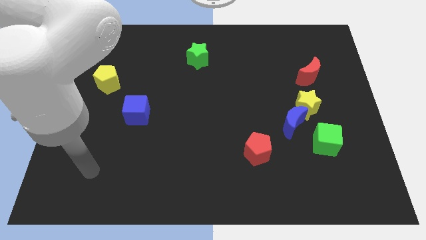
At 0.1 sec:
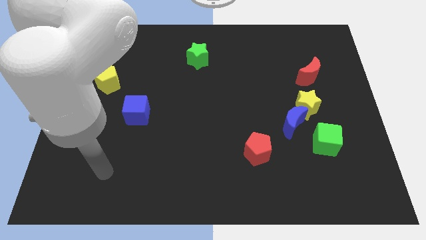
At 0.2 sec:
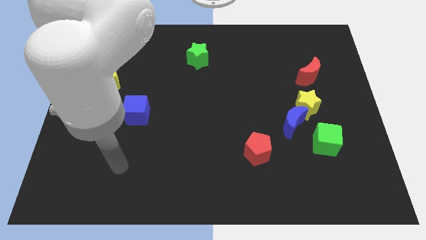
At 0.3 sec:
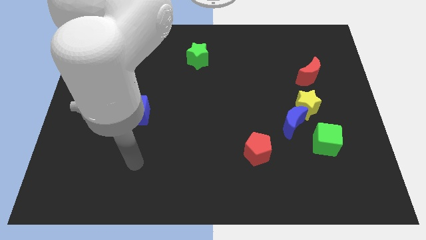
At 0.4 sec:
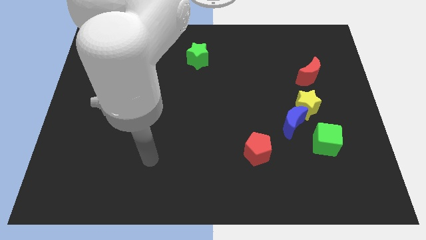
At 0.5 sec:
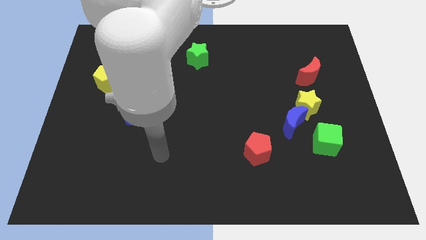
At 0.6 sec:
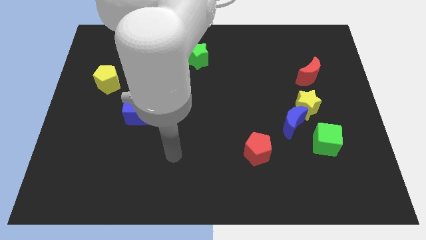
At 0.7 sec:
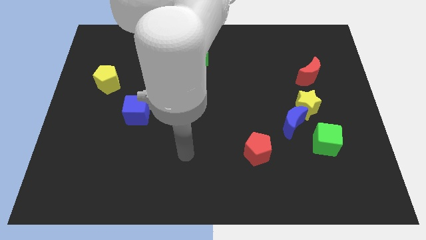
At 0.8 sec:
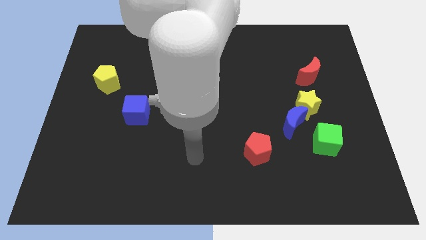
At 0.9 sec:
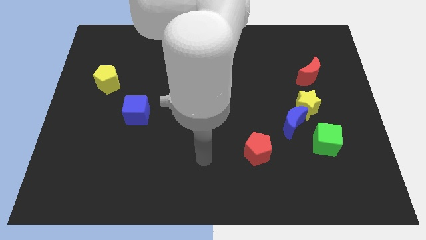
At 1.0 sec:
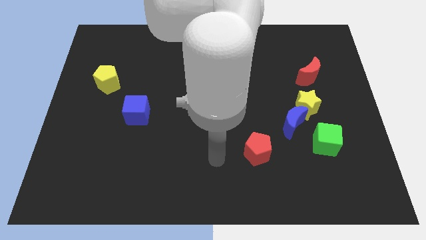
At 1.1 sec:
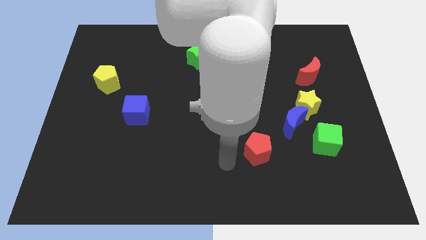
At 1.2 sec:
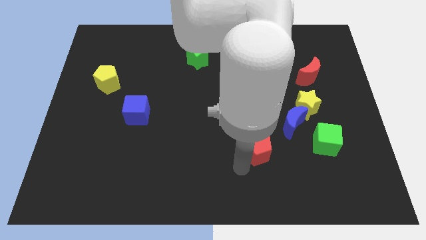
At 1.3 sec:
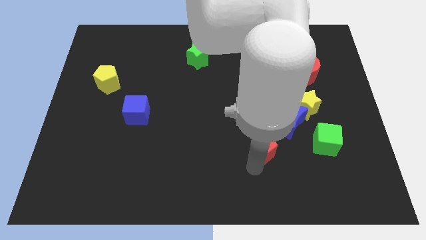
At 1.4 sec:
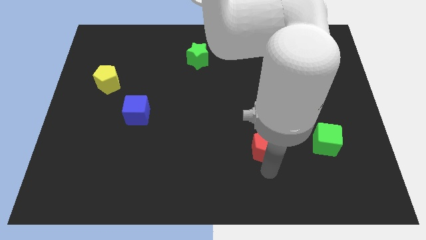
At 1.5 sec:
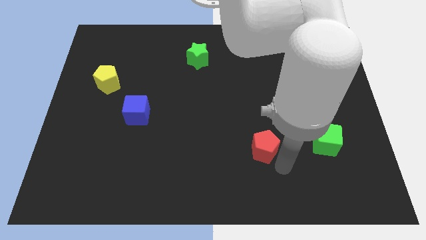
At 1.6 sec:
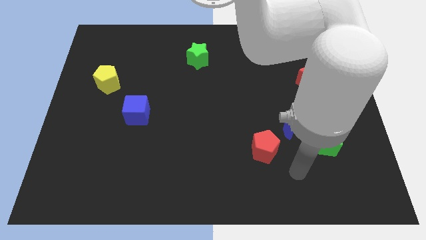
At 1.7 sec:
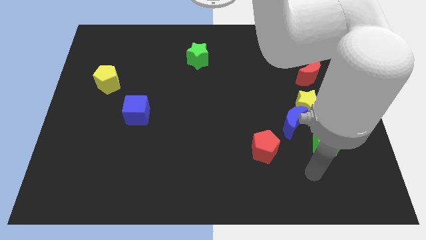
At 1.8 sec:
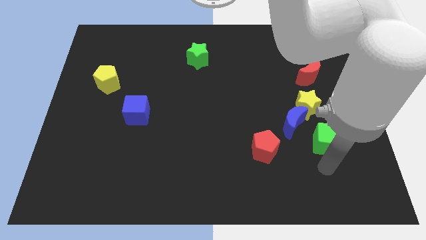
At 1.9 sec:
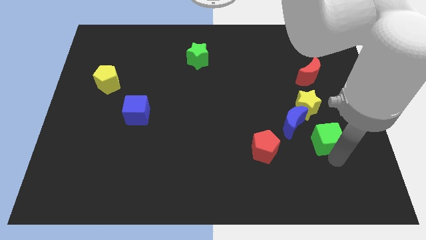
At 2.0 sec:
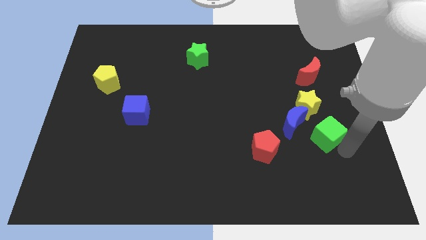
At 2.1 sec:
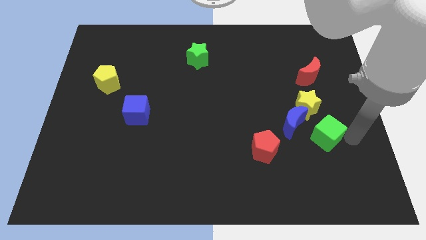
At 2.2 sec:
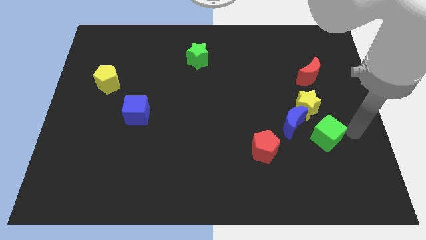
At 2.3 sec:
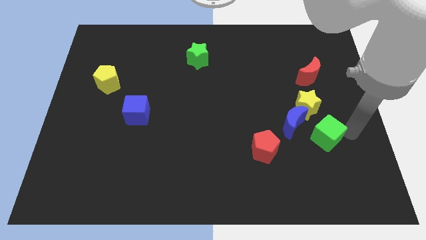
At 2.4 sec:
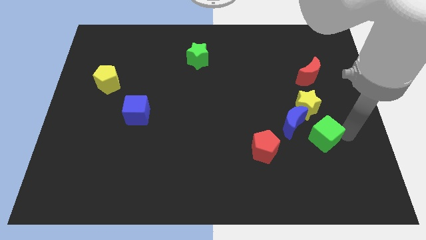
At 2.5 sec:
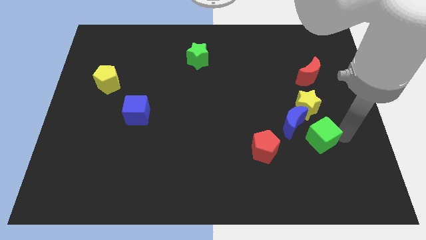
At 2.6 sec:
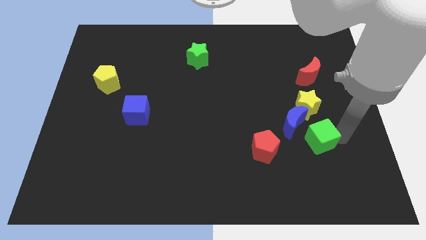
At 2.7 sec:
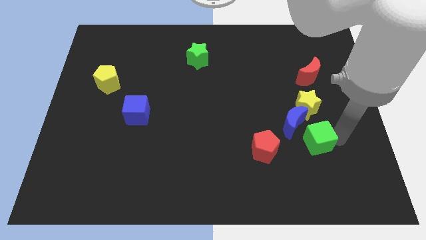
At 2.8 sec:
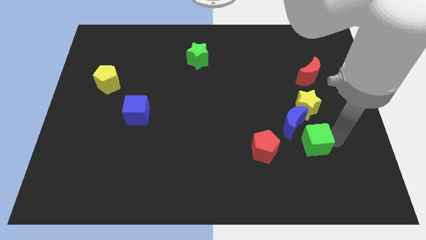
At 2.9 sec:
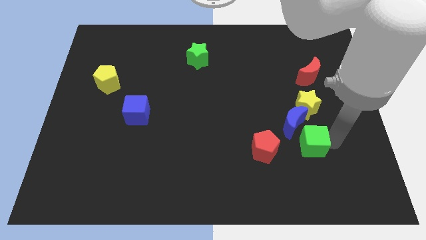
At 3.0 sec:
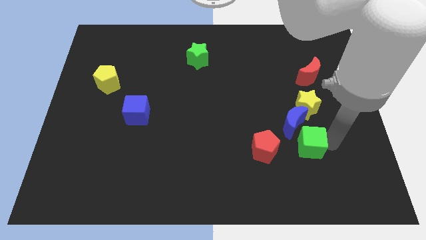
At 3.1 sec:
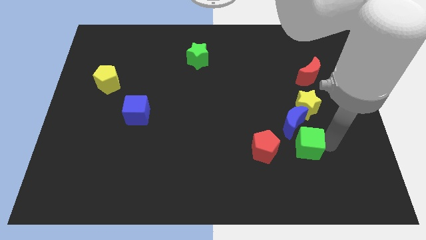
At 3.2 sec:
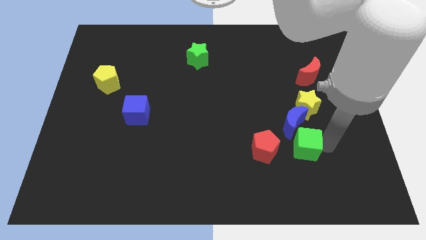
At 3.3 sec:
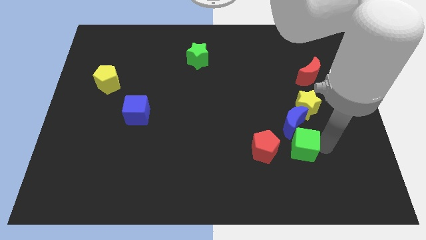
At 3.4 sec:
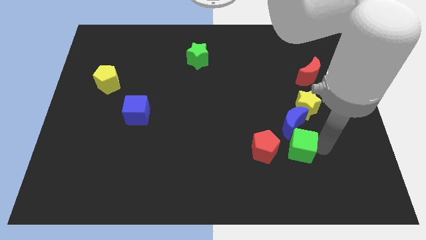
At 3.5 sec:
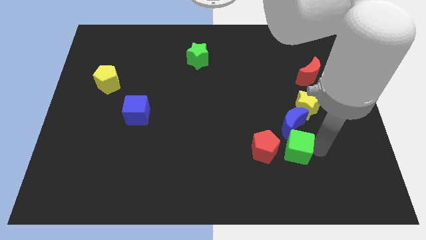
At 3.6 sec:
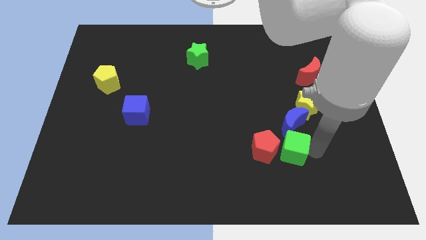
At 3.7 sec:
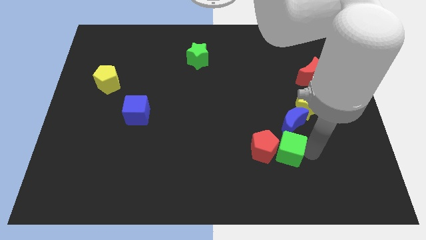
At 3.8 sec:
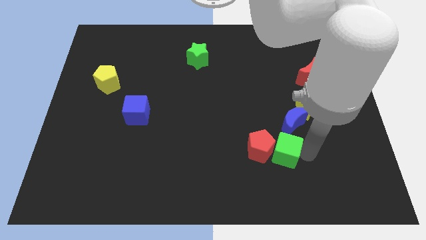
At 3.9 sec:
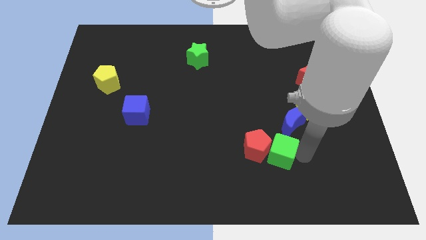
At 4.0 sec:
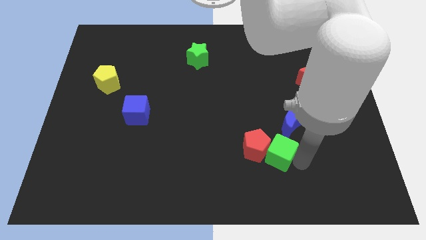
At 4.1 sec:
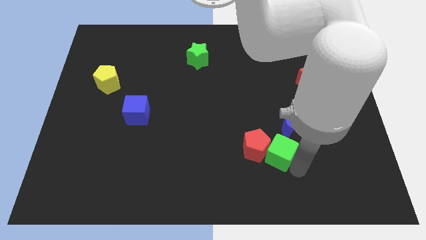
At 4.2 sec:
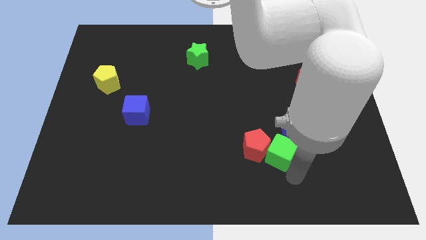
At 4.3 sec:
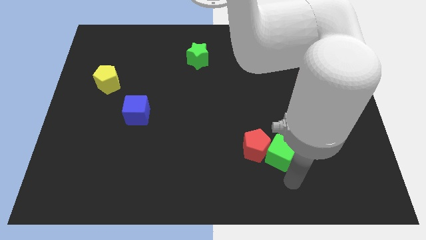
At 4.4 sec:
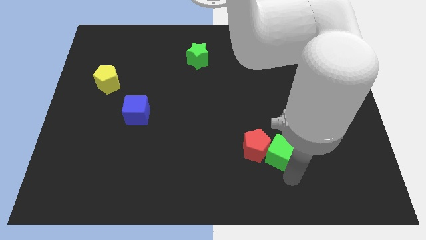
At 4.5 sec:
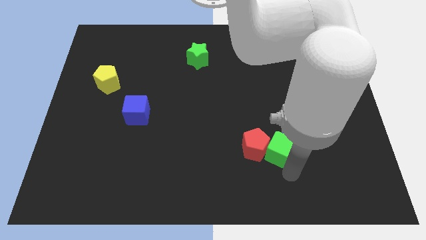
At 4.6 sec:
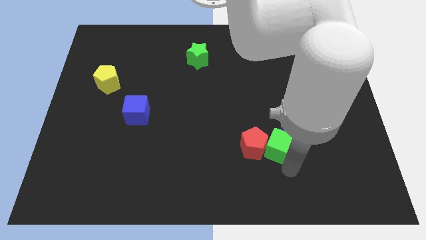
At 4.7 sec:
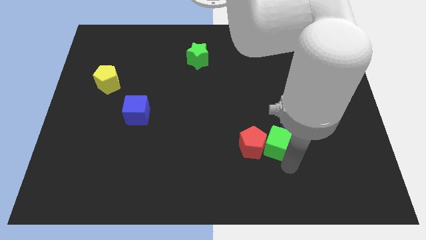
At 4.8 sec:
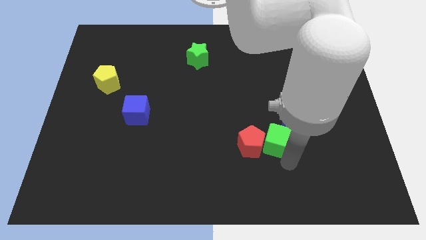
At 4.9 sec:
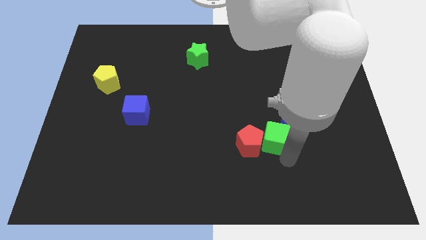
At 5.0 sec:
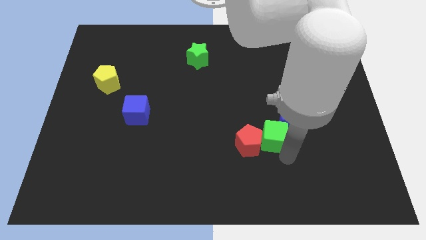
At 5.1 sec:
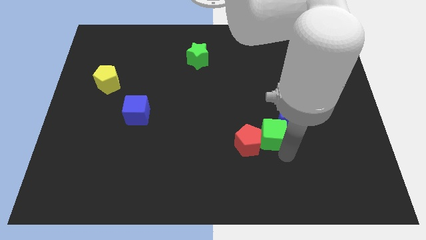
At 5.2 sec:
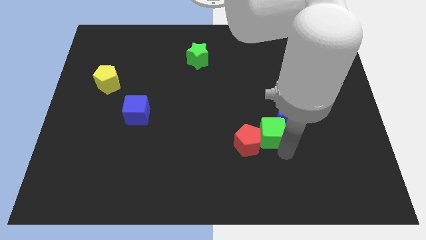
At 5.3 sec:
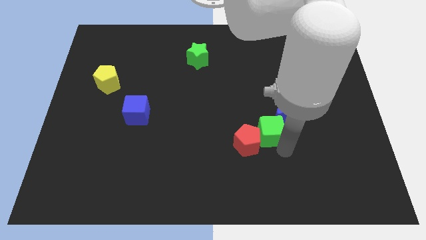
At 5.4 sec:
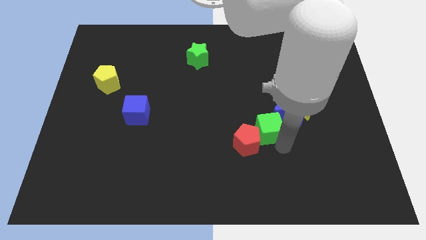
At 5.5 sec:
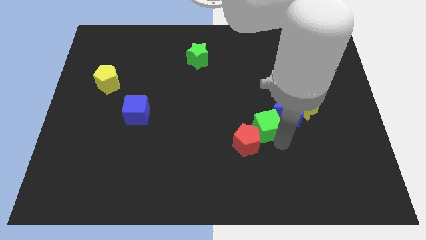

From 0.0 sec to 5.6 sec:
slide the green cube to the top side of the red pentagon

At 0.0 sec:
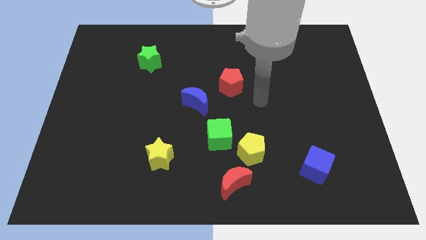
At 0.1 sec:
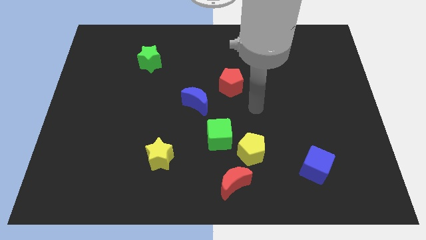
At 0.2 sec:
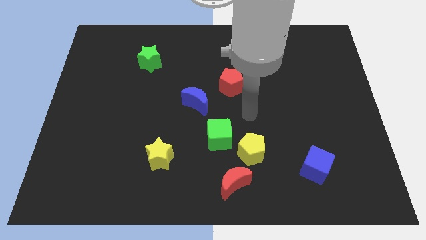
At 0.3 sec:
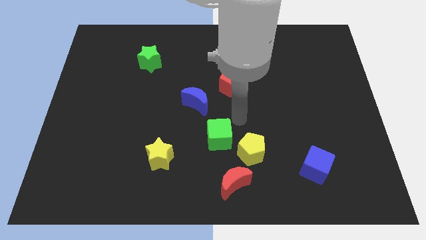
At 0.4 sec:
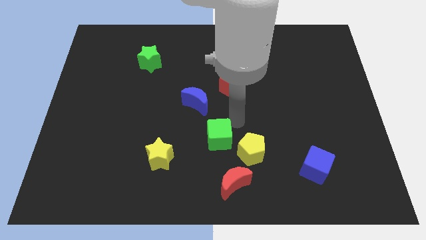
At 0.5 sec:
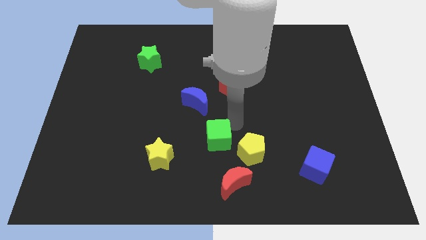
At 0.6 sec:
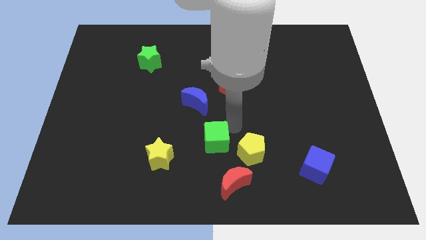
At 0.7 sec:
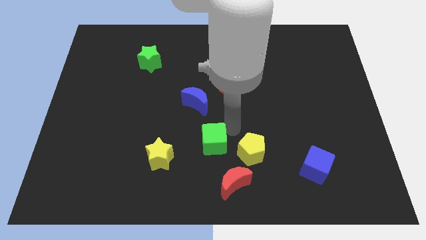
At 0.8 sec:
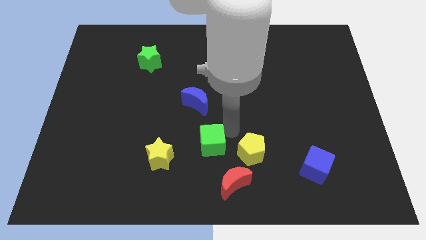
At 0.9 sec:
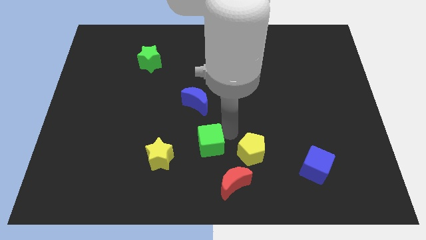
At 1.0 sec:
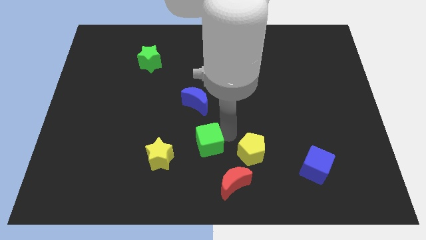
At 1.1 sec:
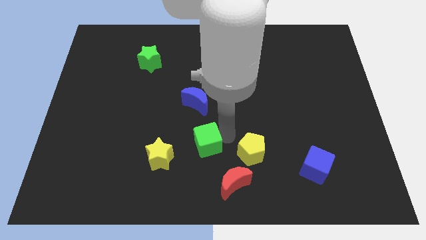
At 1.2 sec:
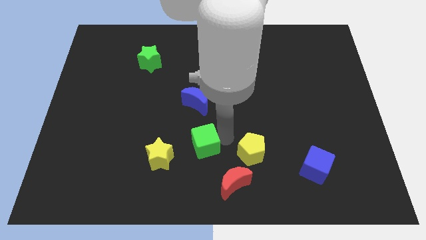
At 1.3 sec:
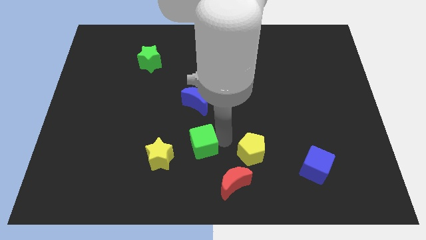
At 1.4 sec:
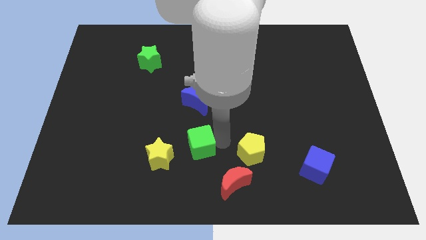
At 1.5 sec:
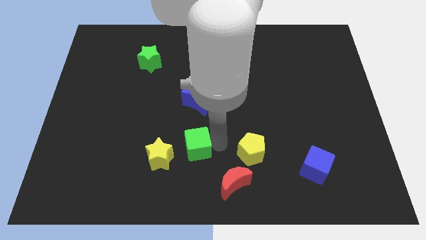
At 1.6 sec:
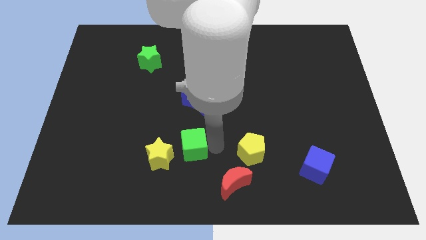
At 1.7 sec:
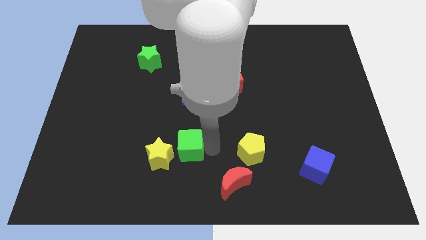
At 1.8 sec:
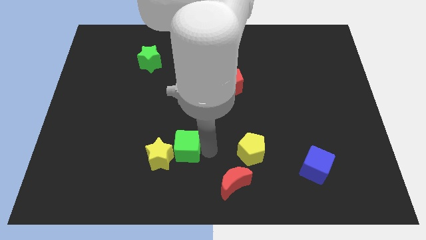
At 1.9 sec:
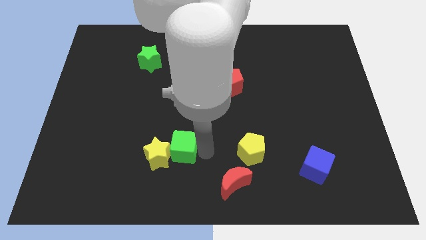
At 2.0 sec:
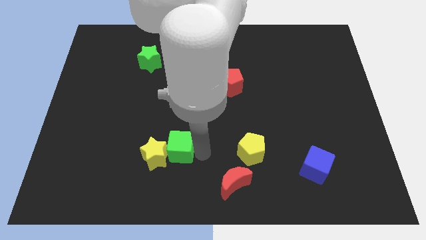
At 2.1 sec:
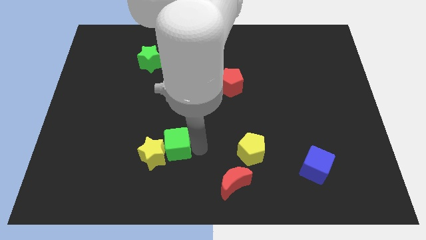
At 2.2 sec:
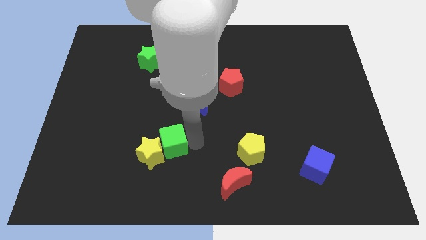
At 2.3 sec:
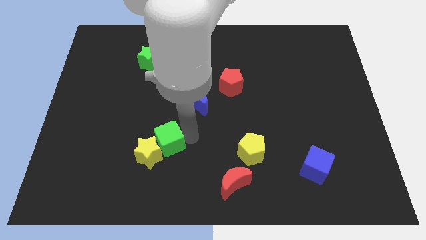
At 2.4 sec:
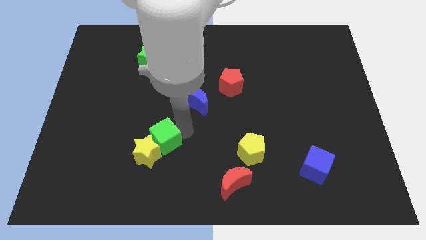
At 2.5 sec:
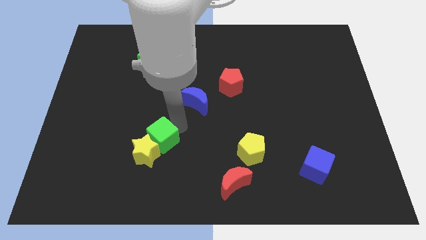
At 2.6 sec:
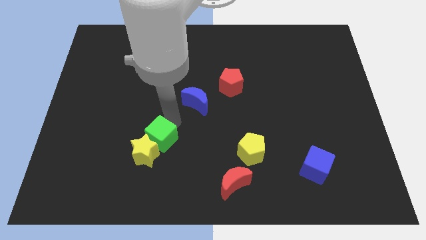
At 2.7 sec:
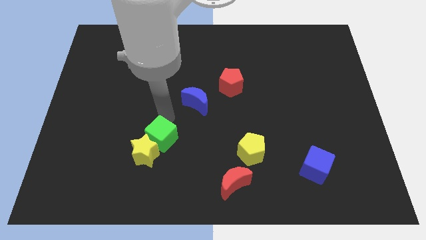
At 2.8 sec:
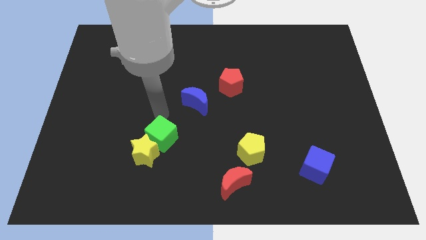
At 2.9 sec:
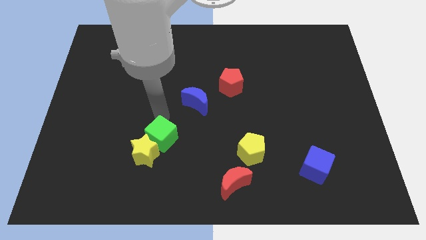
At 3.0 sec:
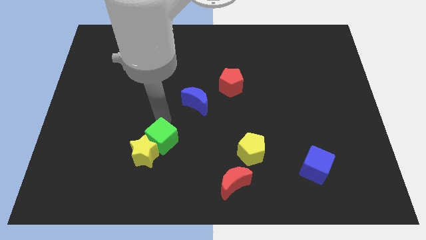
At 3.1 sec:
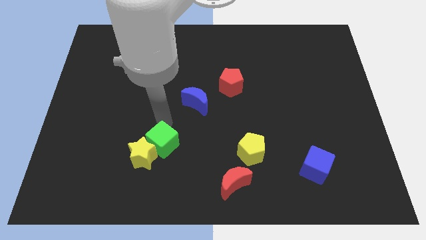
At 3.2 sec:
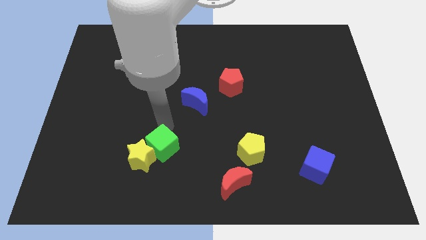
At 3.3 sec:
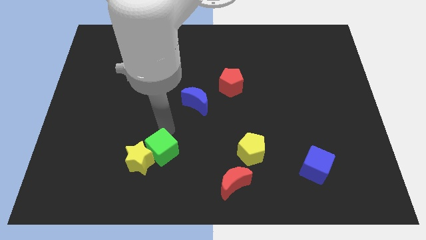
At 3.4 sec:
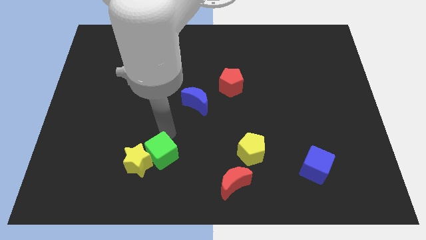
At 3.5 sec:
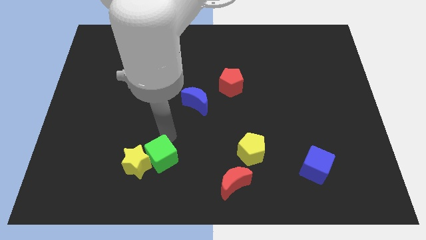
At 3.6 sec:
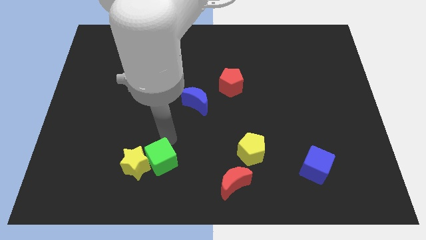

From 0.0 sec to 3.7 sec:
move the green cube to the bottom right of the yellow star
